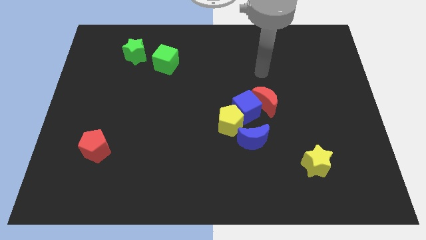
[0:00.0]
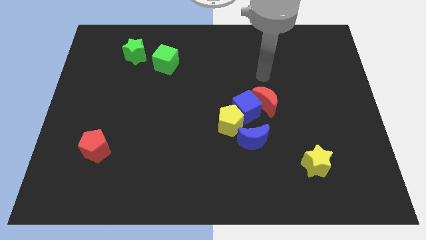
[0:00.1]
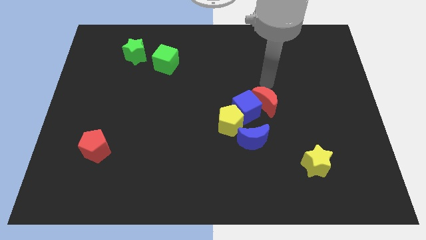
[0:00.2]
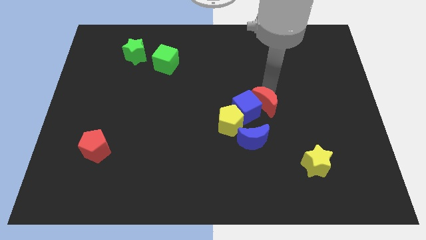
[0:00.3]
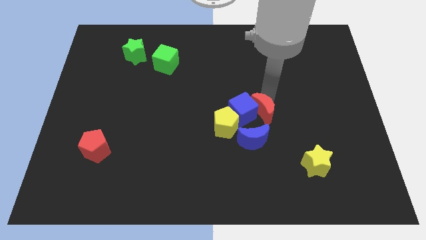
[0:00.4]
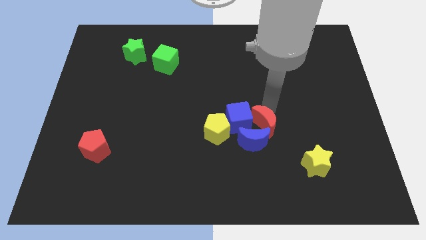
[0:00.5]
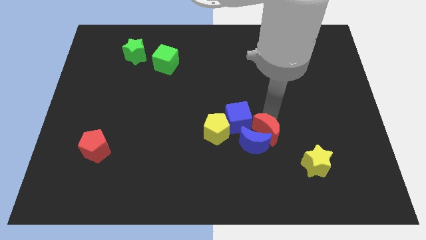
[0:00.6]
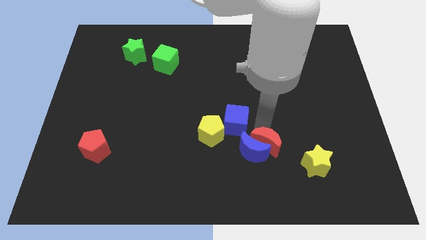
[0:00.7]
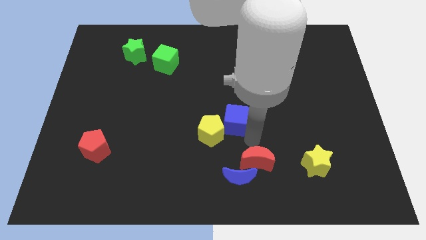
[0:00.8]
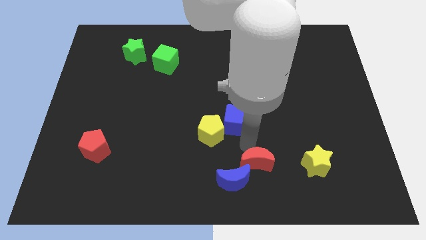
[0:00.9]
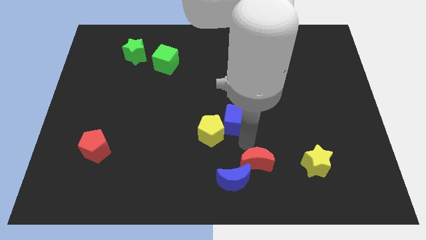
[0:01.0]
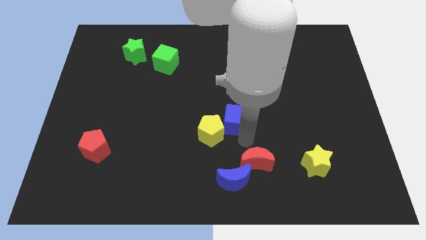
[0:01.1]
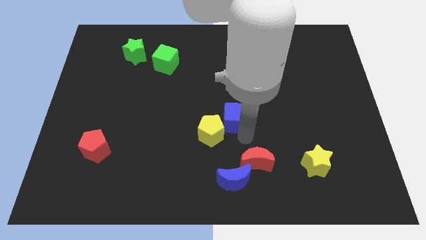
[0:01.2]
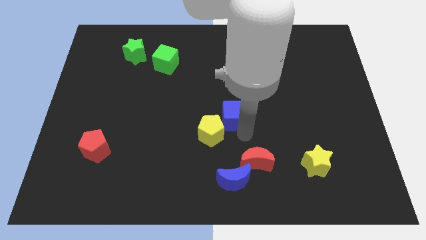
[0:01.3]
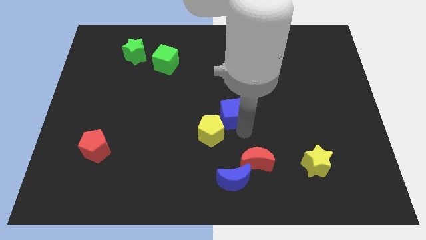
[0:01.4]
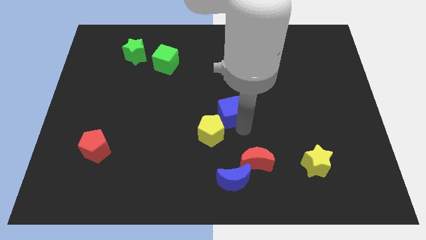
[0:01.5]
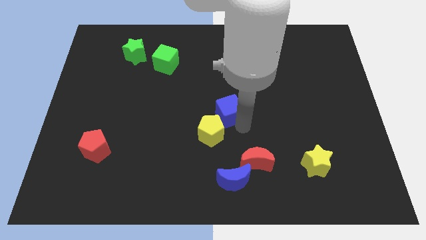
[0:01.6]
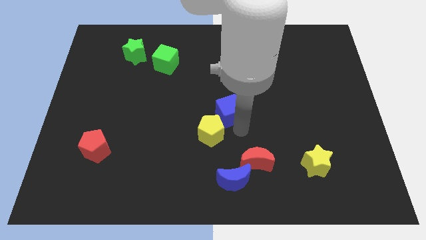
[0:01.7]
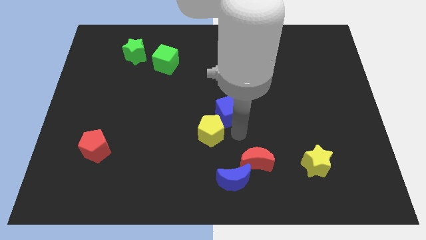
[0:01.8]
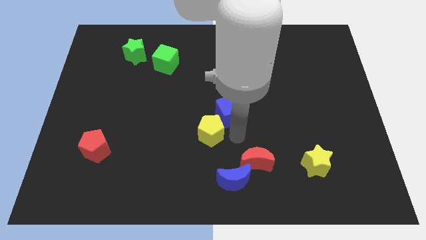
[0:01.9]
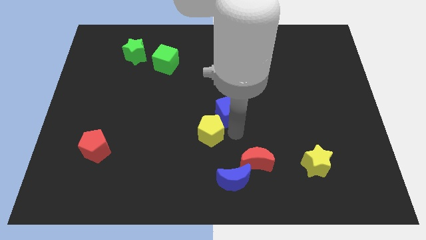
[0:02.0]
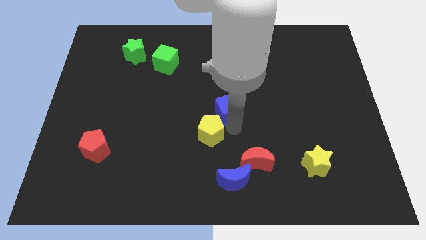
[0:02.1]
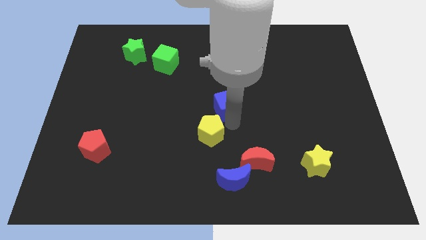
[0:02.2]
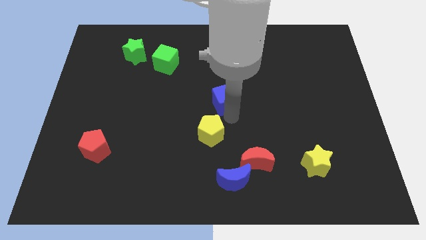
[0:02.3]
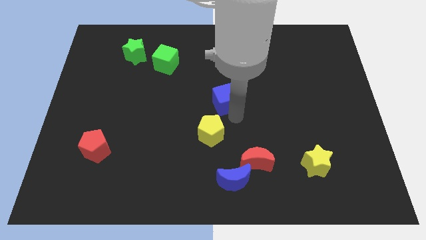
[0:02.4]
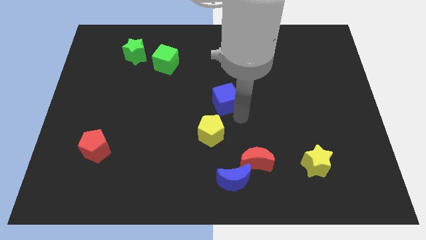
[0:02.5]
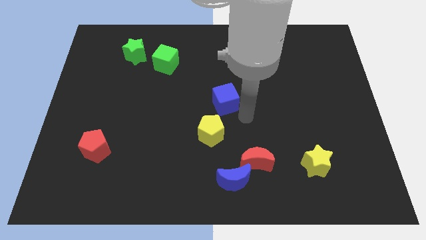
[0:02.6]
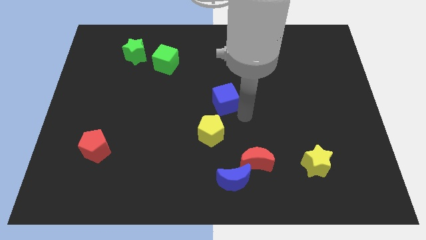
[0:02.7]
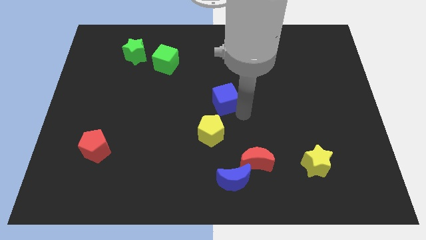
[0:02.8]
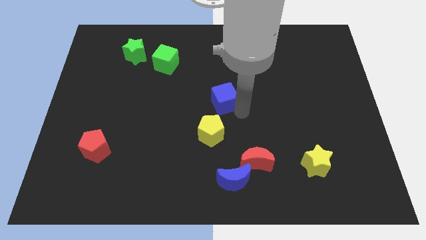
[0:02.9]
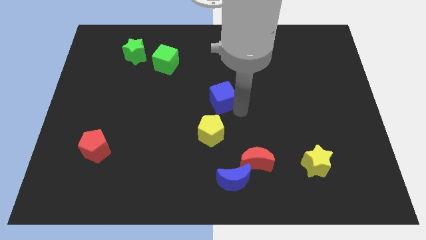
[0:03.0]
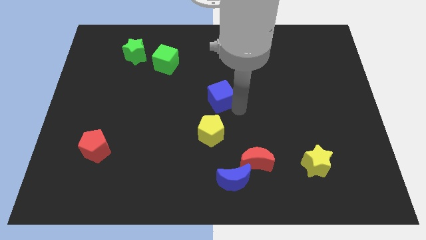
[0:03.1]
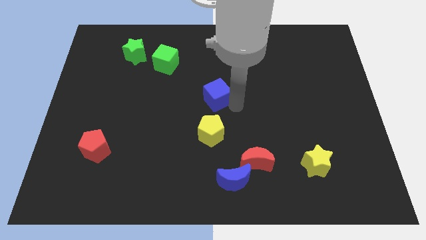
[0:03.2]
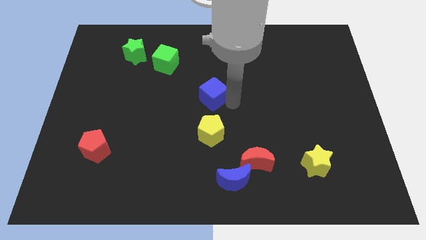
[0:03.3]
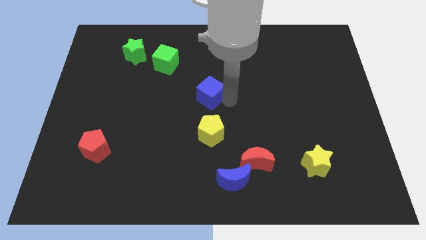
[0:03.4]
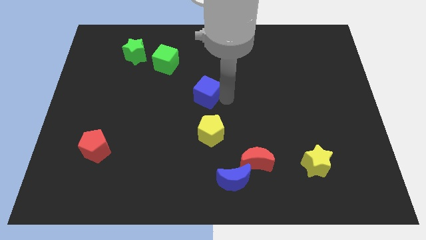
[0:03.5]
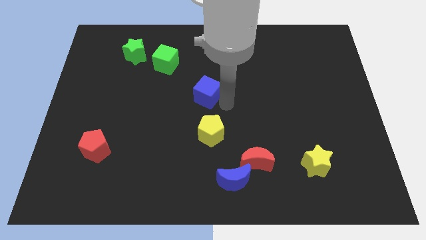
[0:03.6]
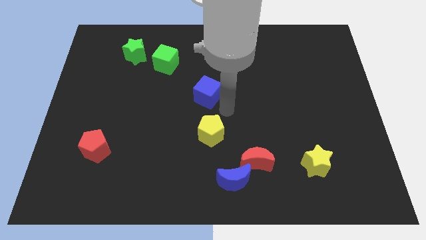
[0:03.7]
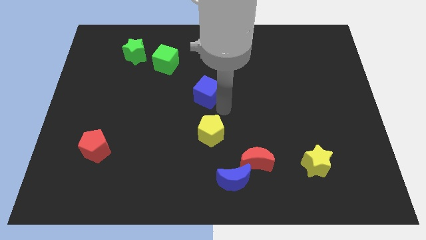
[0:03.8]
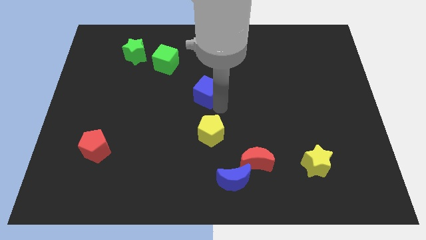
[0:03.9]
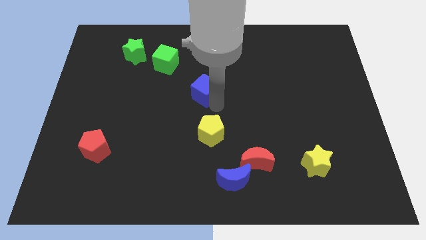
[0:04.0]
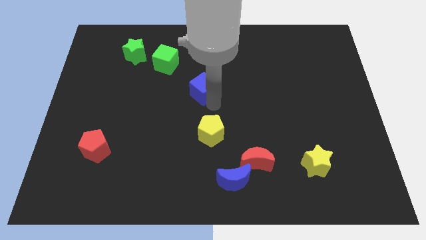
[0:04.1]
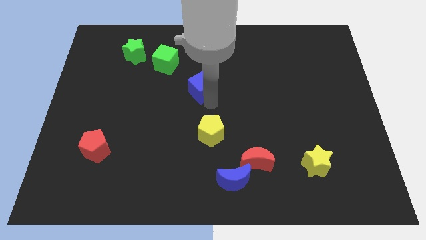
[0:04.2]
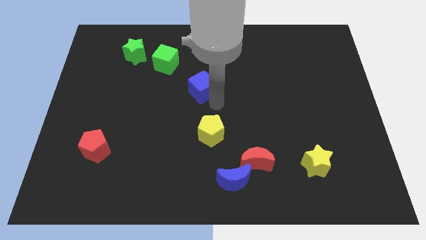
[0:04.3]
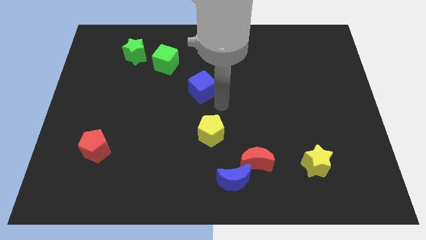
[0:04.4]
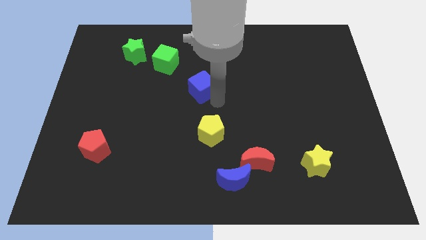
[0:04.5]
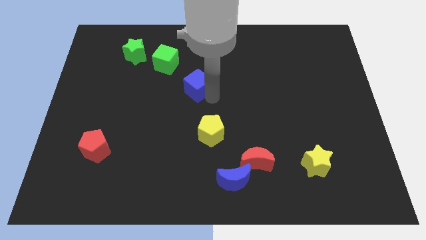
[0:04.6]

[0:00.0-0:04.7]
move the blue cube to the bottom right side of the green cube

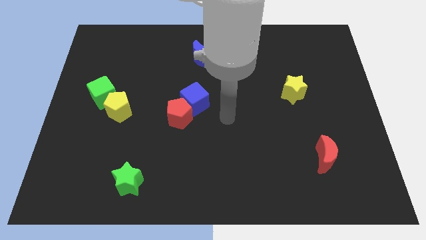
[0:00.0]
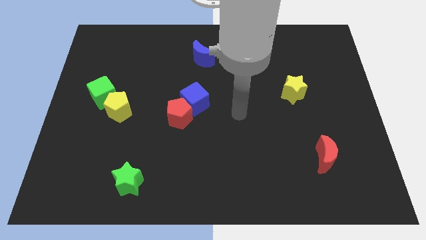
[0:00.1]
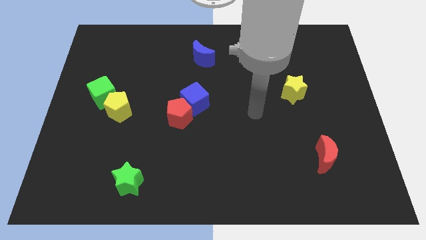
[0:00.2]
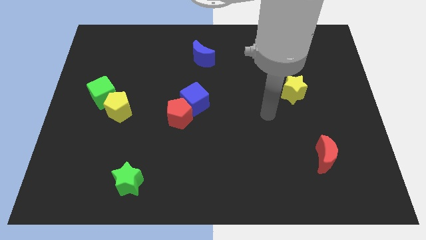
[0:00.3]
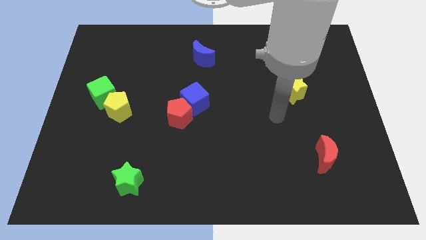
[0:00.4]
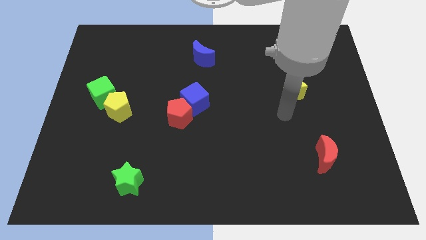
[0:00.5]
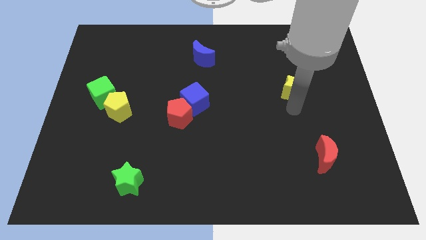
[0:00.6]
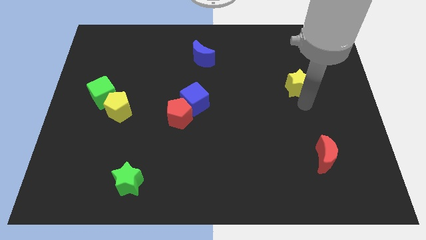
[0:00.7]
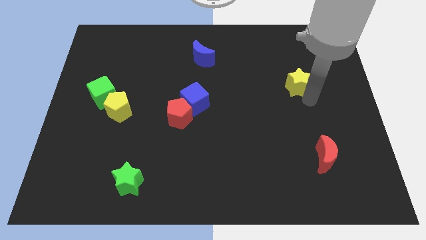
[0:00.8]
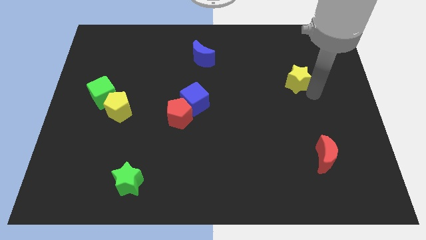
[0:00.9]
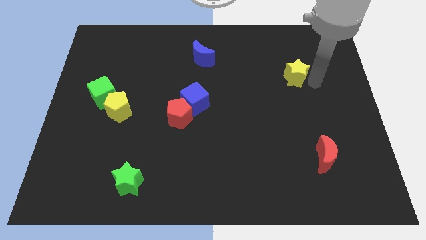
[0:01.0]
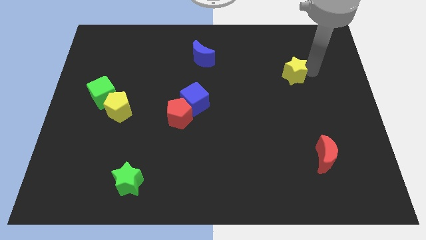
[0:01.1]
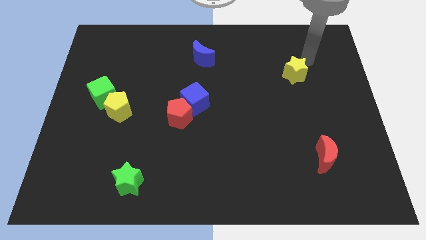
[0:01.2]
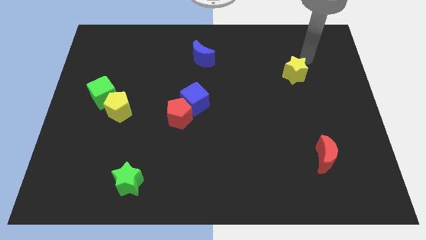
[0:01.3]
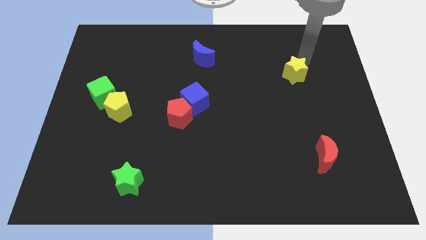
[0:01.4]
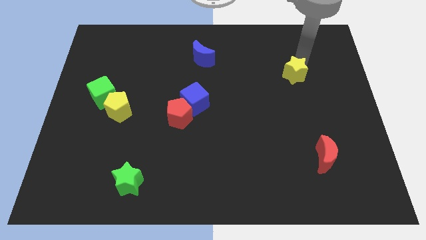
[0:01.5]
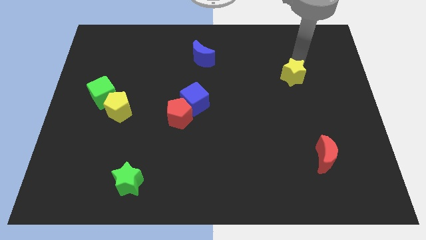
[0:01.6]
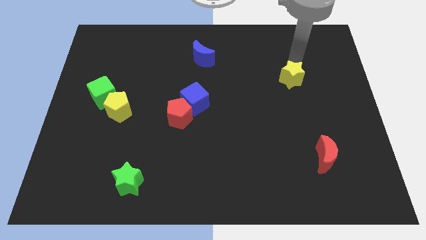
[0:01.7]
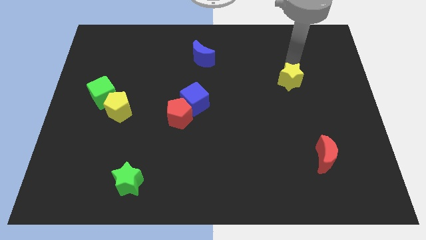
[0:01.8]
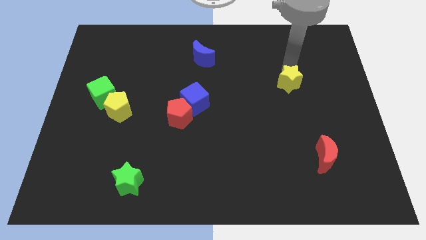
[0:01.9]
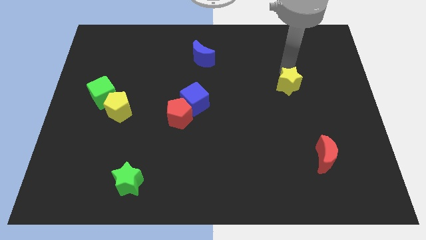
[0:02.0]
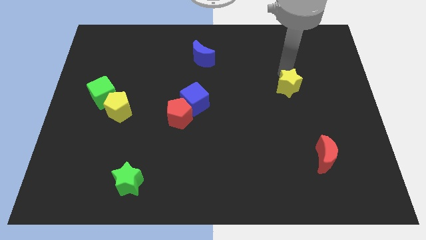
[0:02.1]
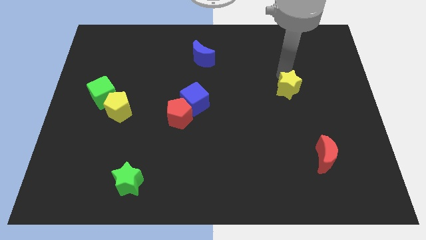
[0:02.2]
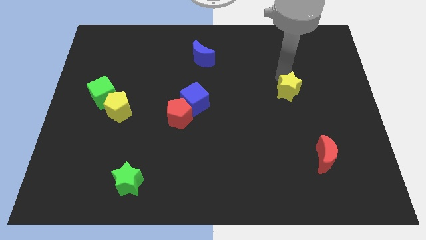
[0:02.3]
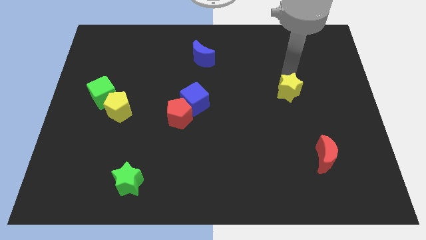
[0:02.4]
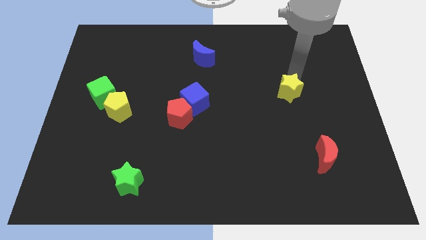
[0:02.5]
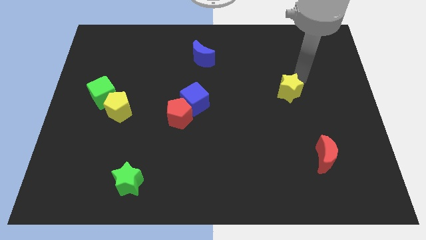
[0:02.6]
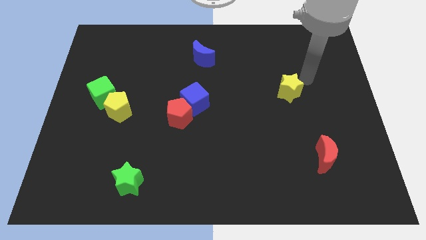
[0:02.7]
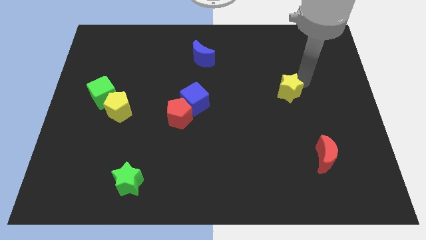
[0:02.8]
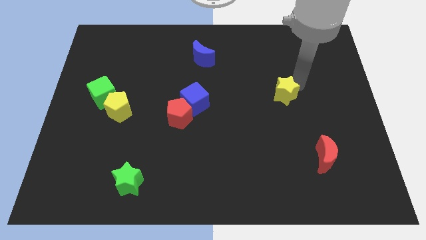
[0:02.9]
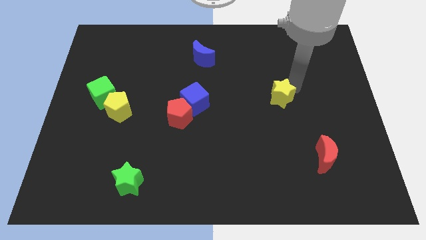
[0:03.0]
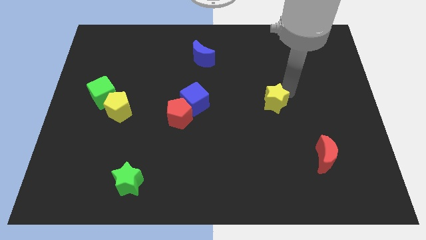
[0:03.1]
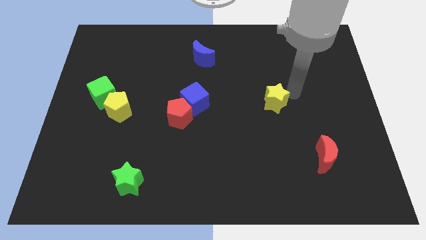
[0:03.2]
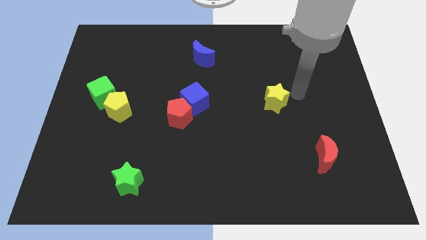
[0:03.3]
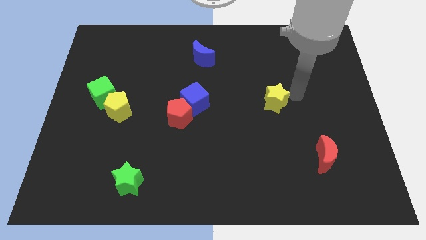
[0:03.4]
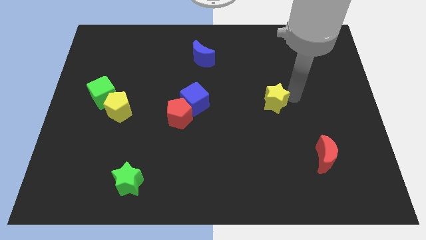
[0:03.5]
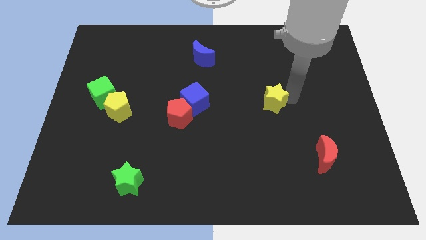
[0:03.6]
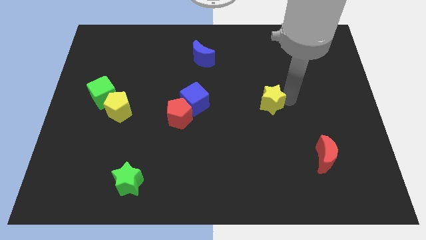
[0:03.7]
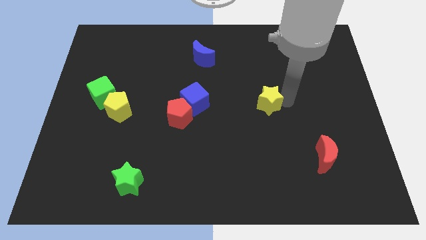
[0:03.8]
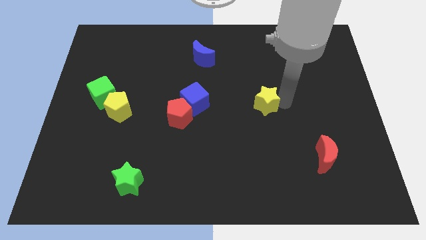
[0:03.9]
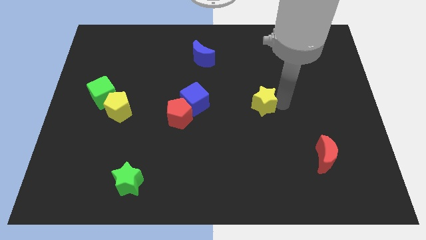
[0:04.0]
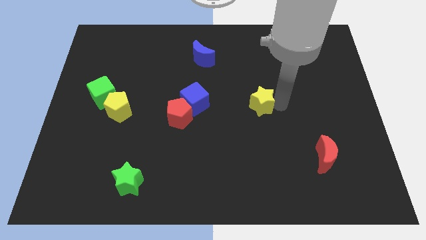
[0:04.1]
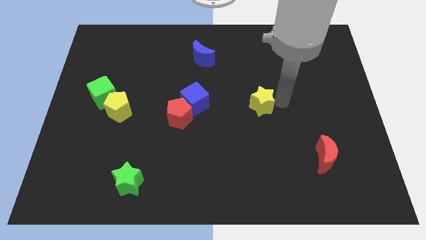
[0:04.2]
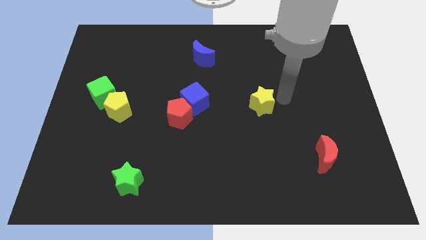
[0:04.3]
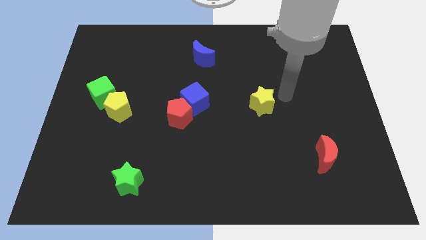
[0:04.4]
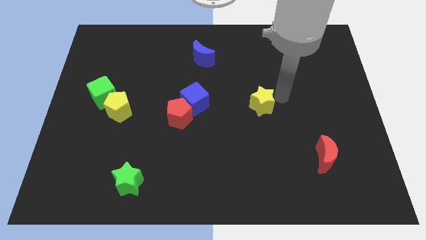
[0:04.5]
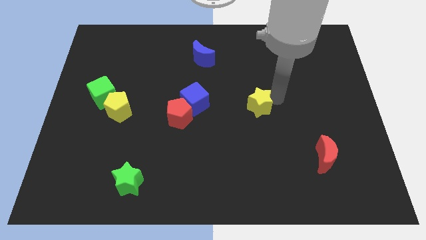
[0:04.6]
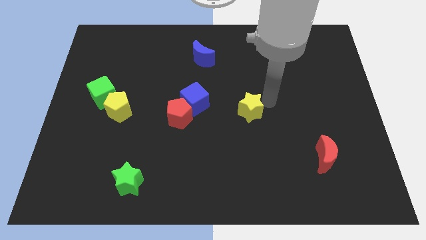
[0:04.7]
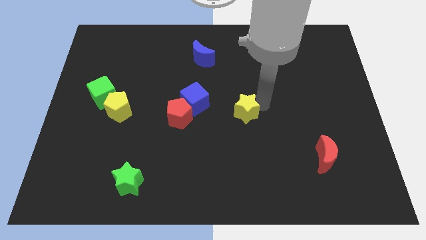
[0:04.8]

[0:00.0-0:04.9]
push the yellow star to the right of the red pentagon
